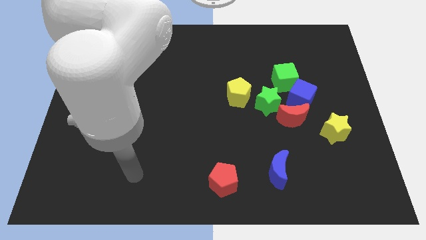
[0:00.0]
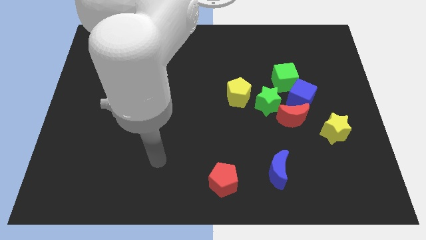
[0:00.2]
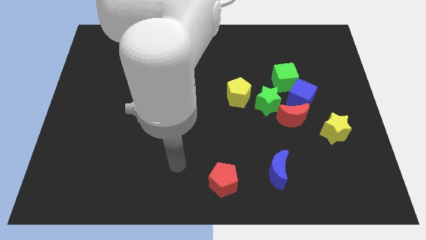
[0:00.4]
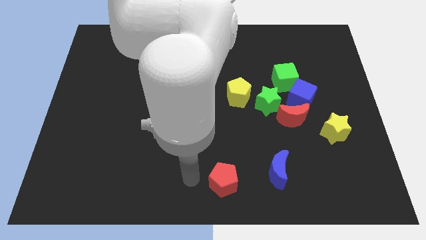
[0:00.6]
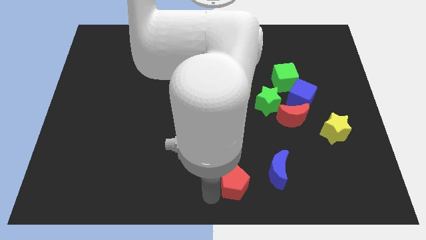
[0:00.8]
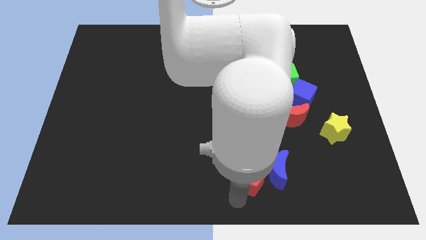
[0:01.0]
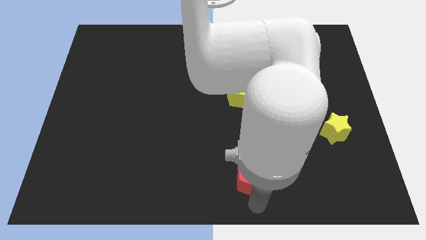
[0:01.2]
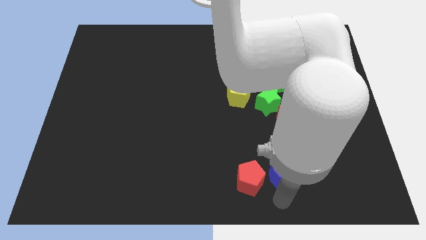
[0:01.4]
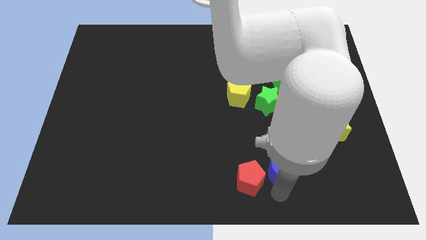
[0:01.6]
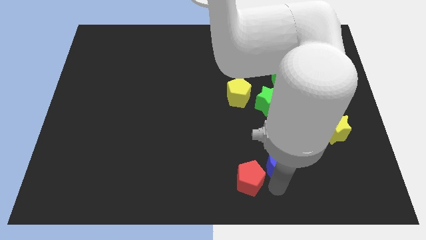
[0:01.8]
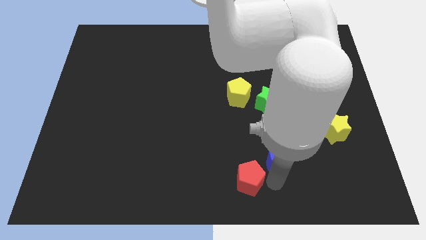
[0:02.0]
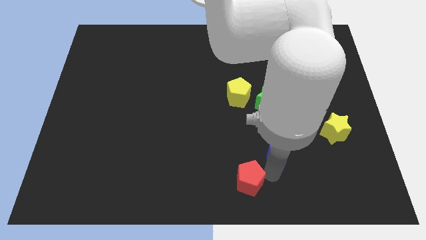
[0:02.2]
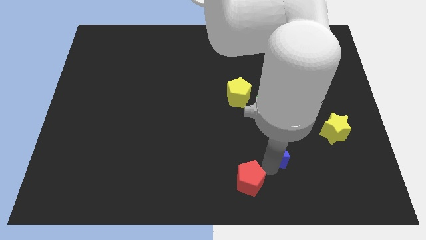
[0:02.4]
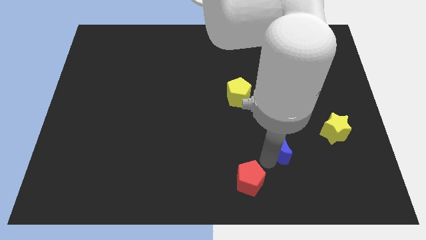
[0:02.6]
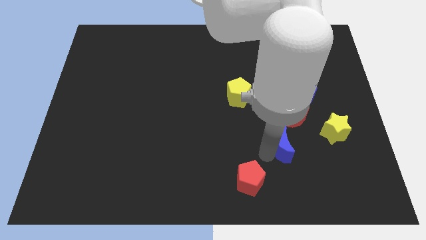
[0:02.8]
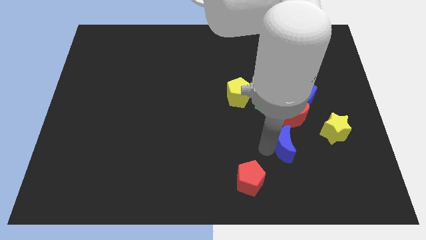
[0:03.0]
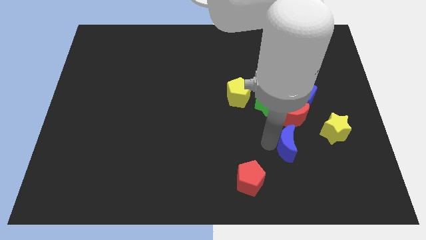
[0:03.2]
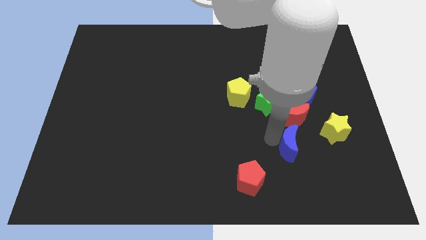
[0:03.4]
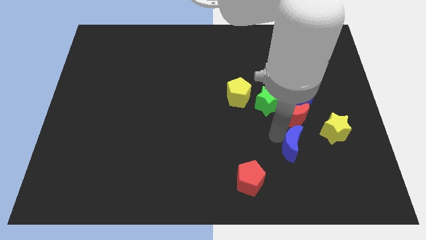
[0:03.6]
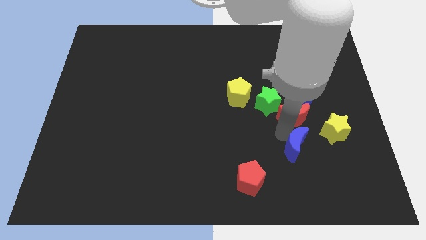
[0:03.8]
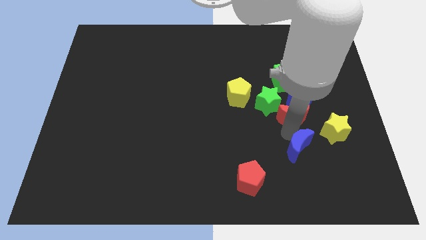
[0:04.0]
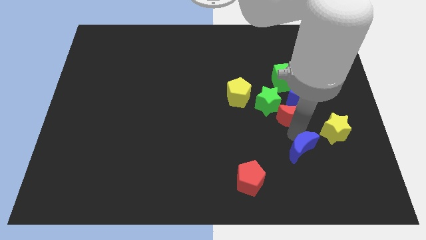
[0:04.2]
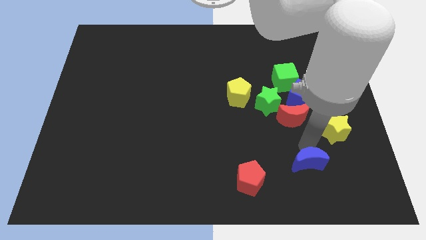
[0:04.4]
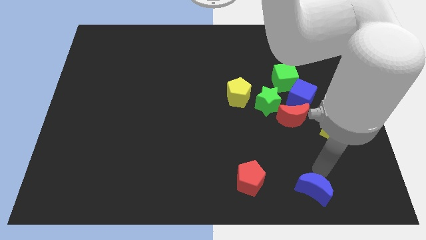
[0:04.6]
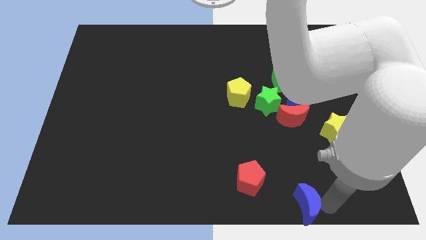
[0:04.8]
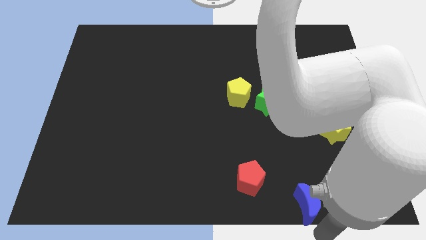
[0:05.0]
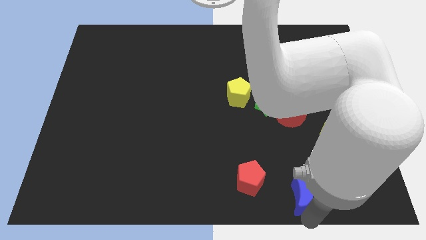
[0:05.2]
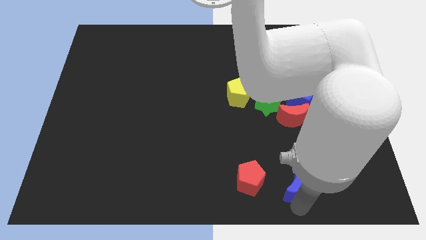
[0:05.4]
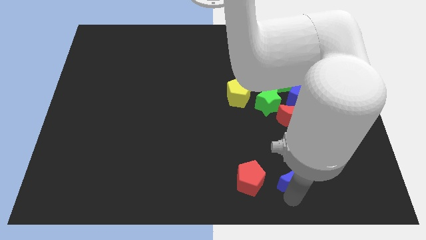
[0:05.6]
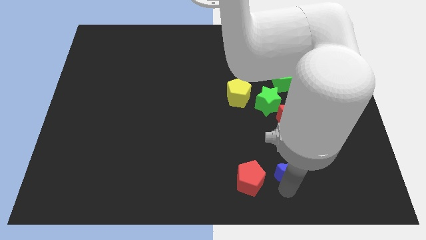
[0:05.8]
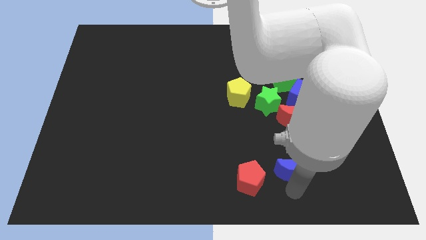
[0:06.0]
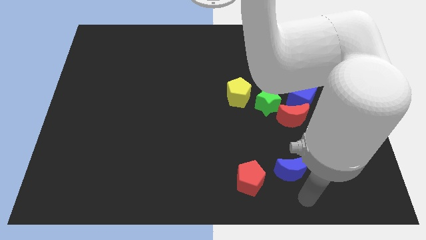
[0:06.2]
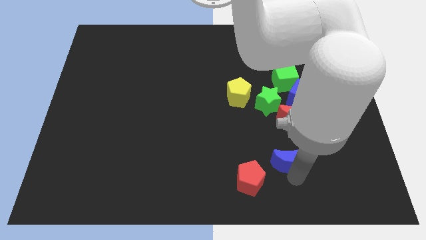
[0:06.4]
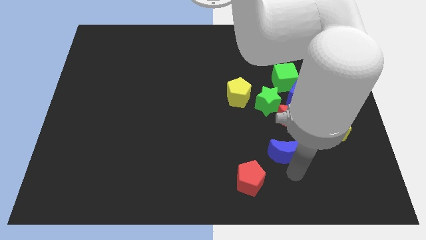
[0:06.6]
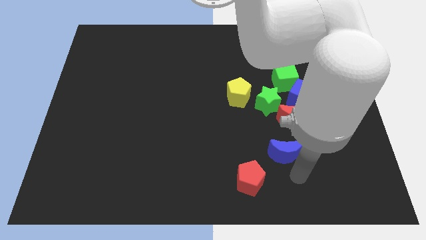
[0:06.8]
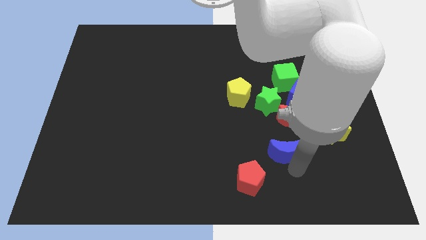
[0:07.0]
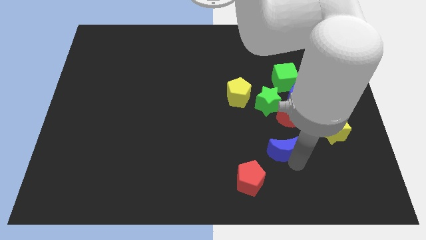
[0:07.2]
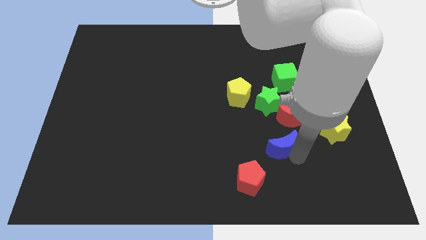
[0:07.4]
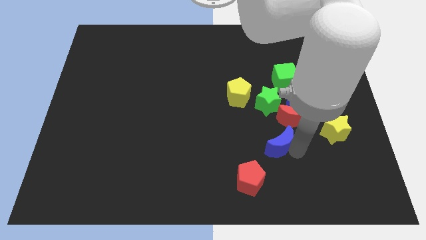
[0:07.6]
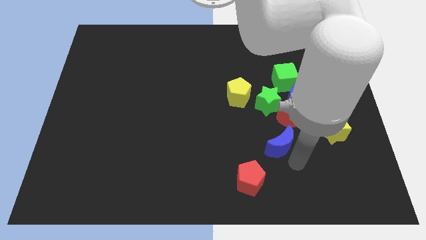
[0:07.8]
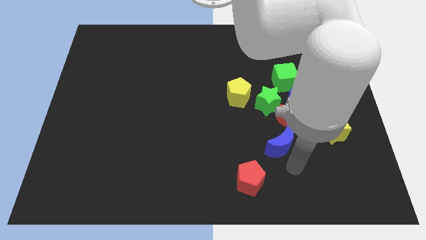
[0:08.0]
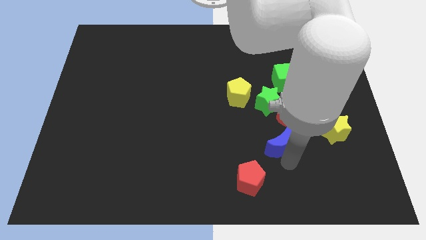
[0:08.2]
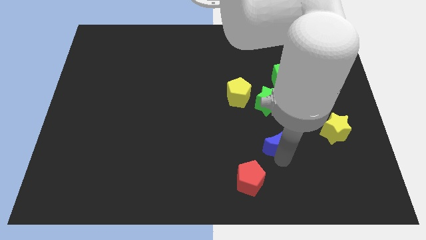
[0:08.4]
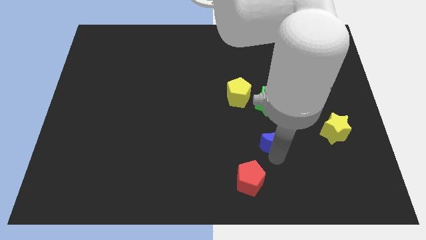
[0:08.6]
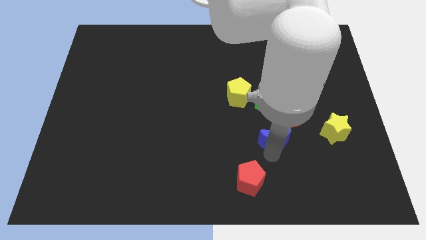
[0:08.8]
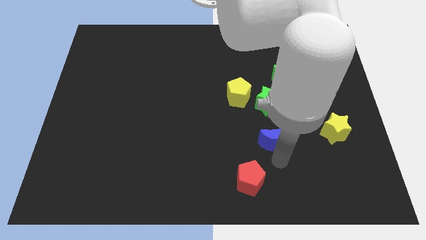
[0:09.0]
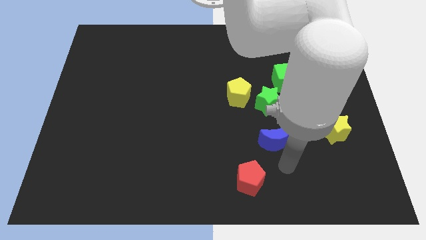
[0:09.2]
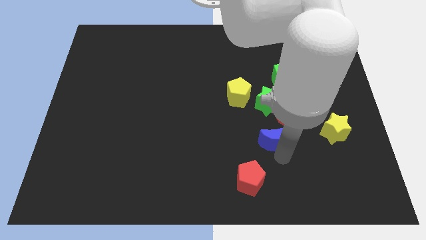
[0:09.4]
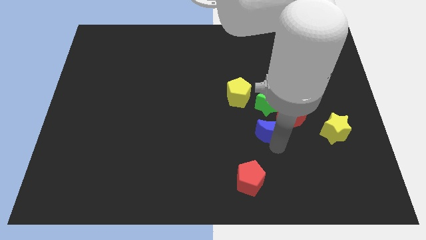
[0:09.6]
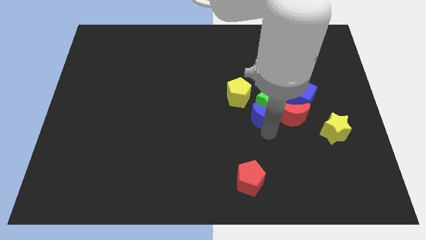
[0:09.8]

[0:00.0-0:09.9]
push the blue moon next to the green star

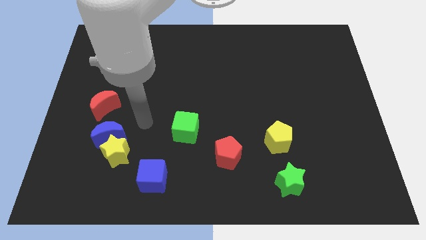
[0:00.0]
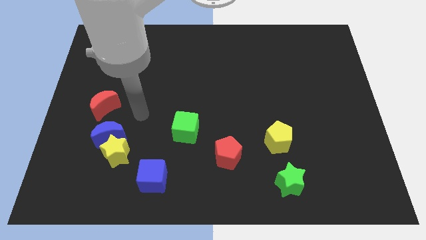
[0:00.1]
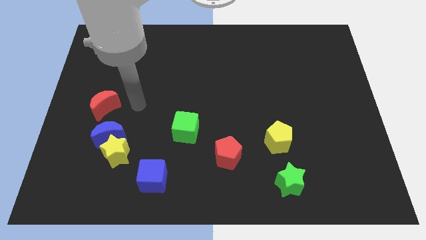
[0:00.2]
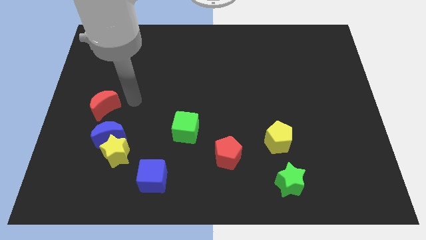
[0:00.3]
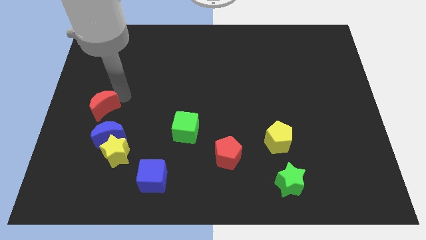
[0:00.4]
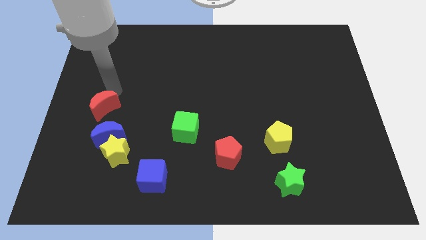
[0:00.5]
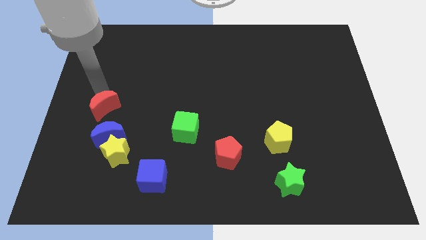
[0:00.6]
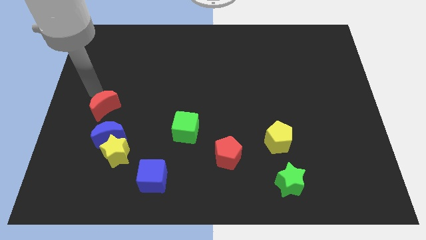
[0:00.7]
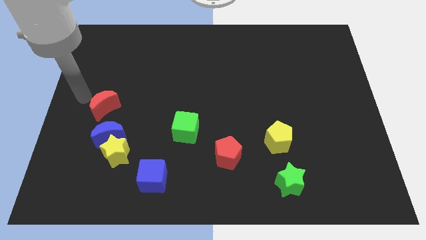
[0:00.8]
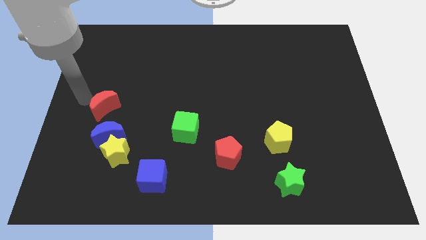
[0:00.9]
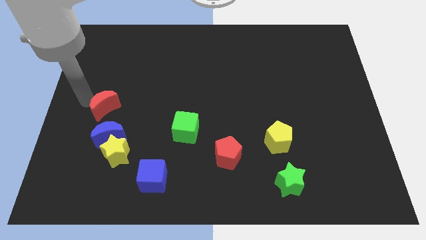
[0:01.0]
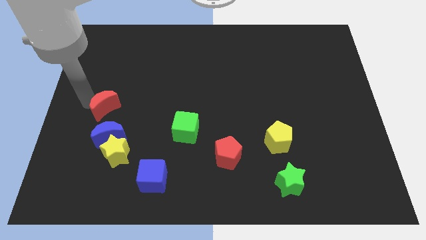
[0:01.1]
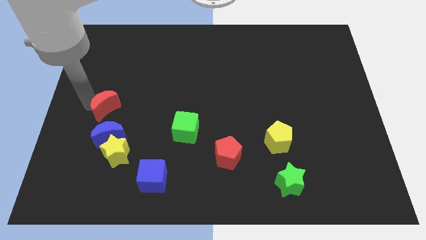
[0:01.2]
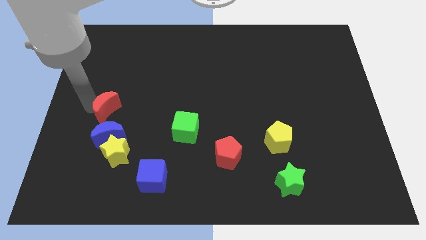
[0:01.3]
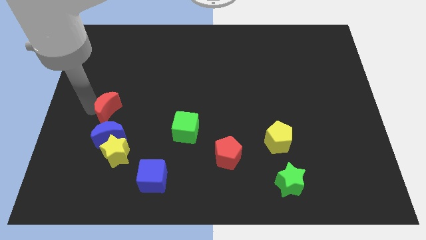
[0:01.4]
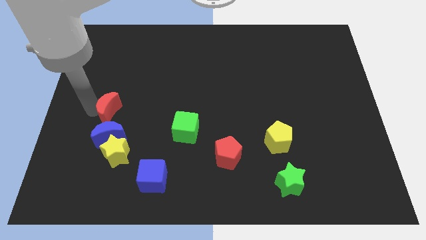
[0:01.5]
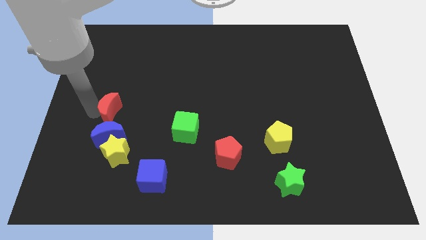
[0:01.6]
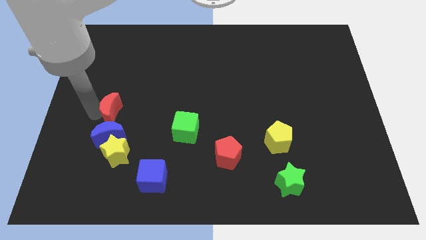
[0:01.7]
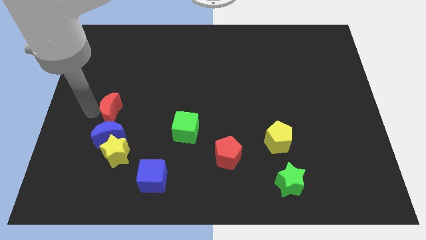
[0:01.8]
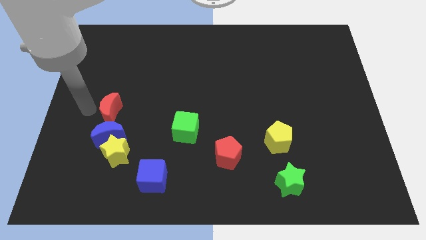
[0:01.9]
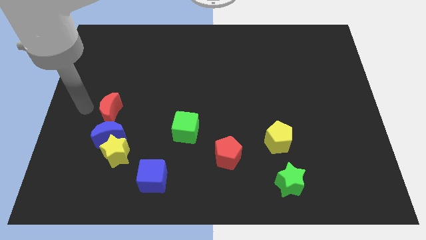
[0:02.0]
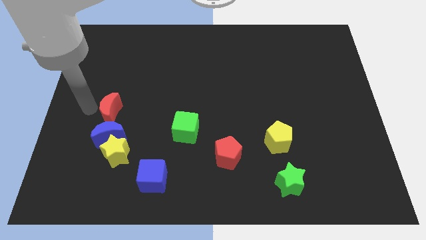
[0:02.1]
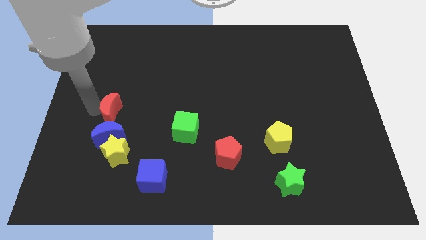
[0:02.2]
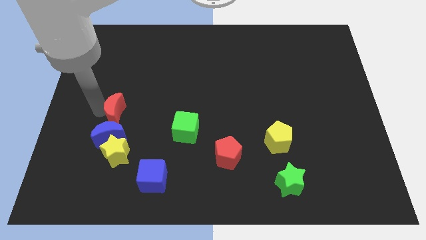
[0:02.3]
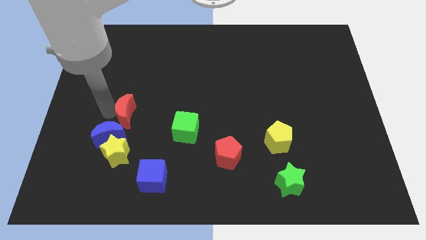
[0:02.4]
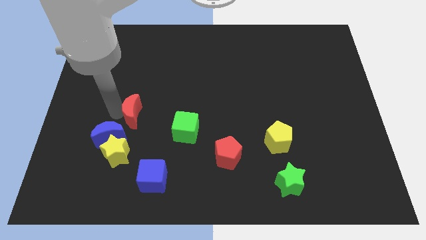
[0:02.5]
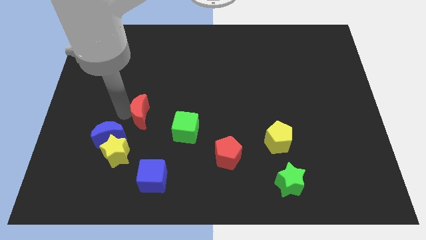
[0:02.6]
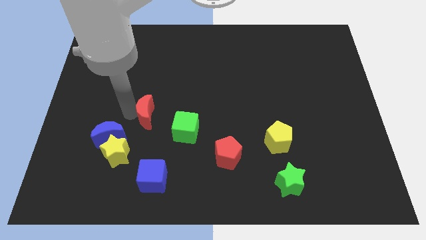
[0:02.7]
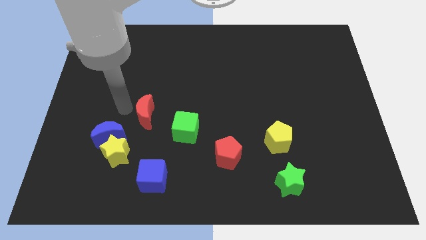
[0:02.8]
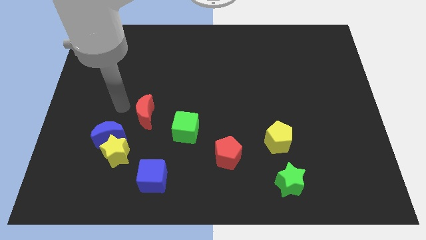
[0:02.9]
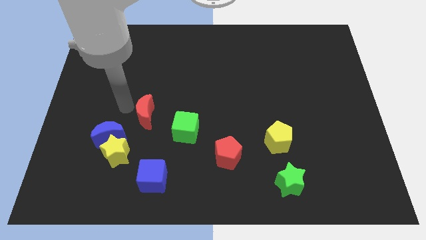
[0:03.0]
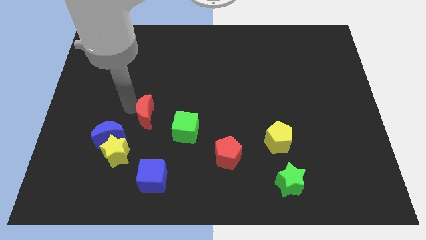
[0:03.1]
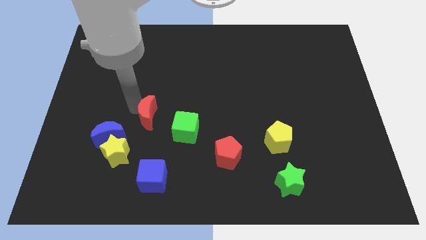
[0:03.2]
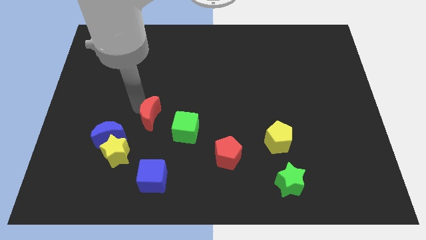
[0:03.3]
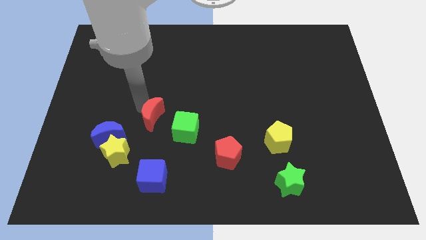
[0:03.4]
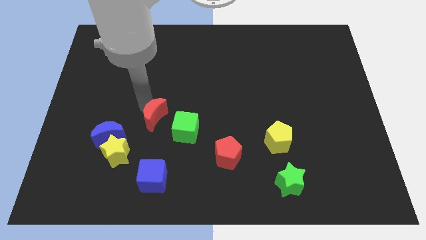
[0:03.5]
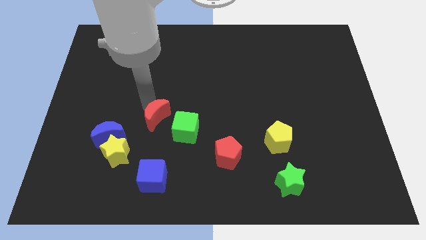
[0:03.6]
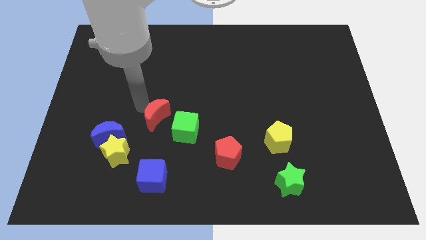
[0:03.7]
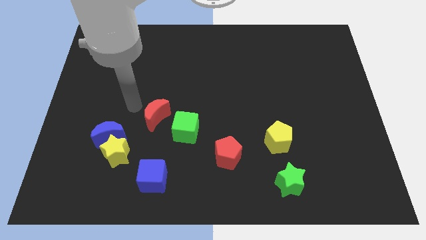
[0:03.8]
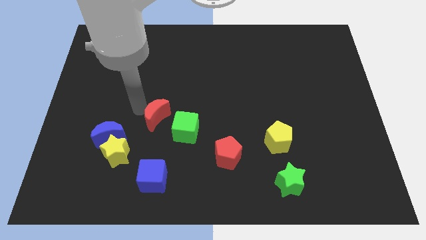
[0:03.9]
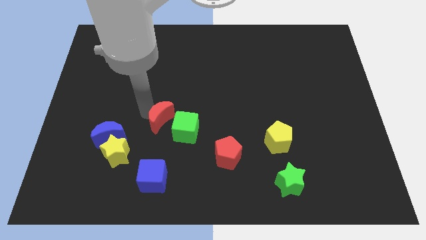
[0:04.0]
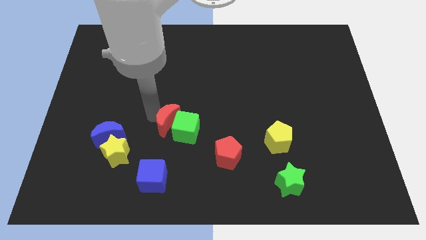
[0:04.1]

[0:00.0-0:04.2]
put the red moon close to the green cube
